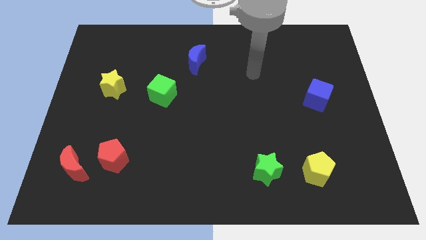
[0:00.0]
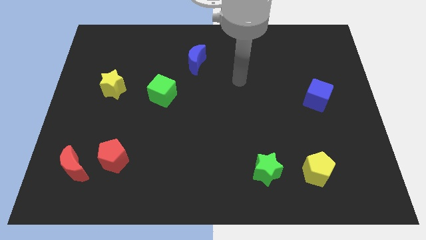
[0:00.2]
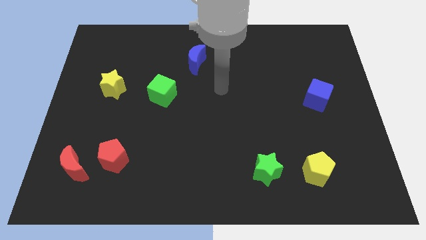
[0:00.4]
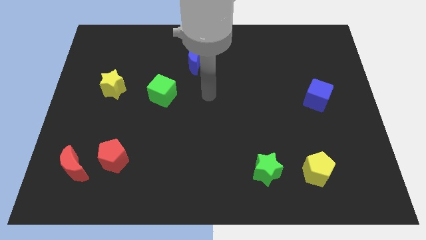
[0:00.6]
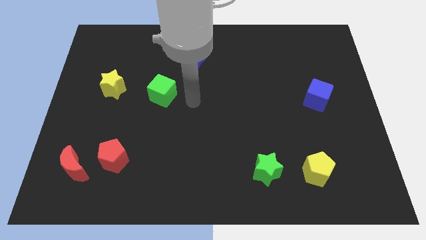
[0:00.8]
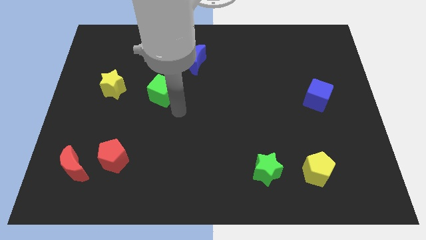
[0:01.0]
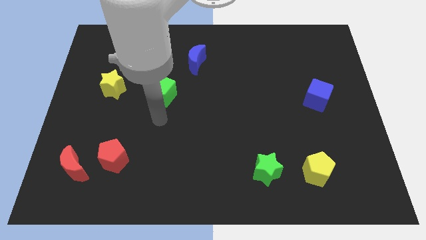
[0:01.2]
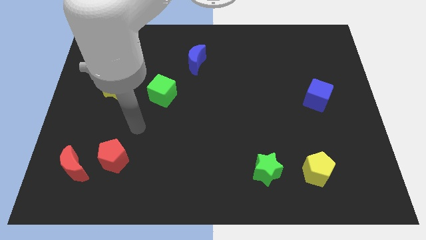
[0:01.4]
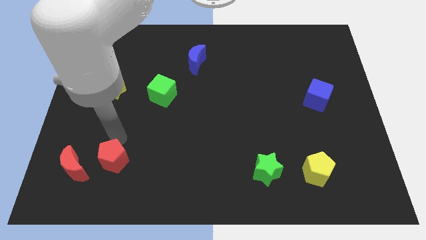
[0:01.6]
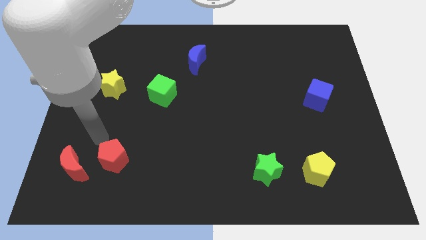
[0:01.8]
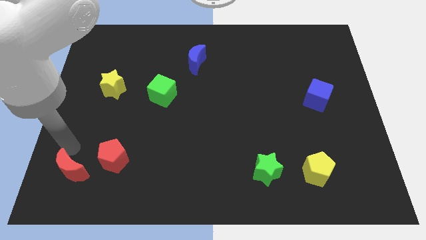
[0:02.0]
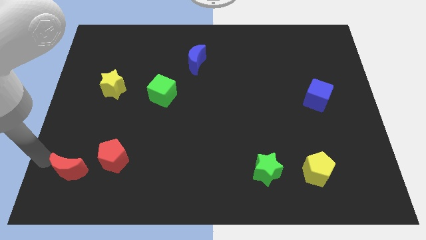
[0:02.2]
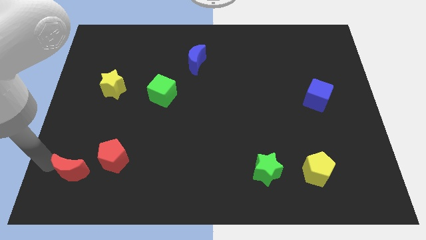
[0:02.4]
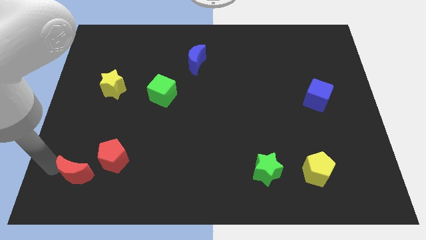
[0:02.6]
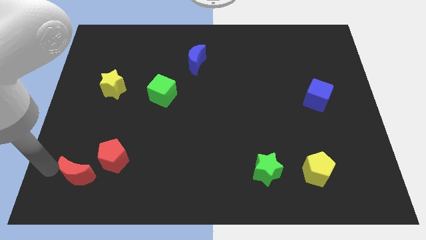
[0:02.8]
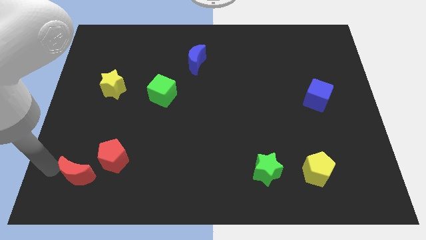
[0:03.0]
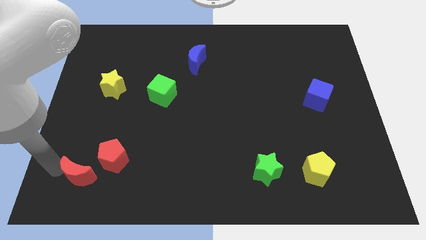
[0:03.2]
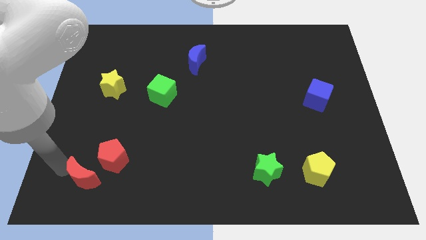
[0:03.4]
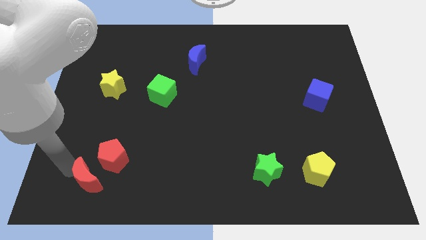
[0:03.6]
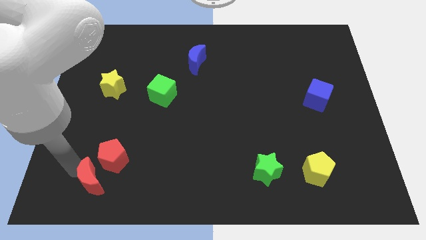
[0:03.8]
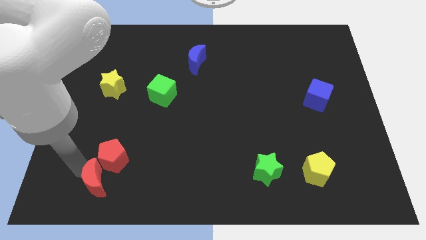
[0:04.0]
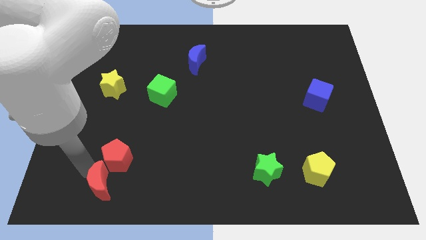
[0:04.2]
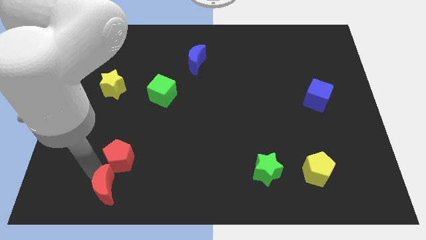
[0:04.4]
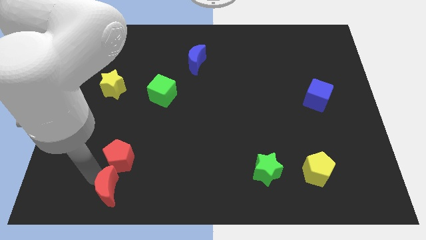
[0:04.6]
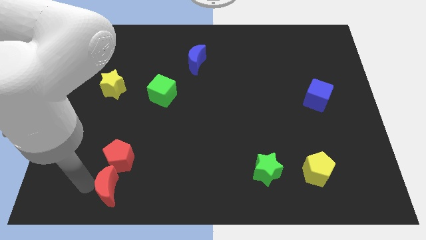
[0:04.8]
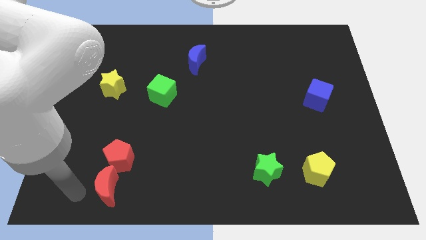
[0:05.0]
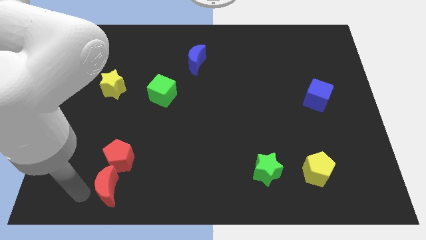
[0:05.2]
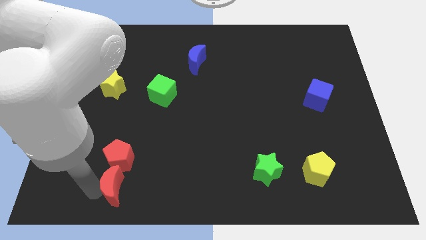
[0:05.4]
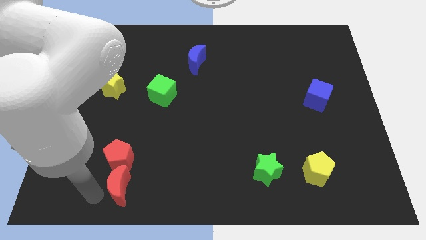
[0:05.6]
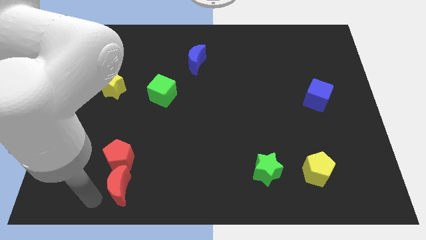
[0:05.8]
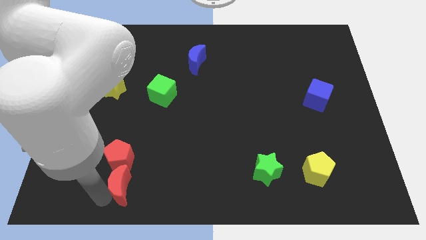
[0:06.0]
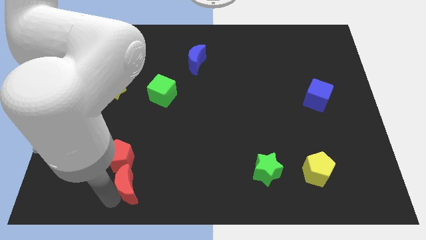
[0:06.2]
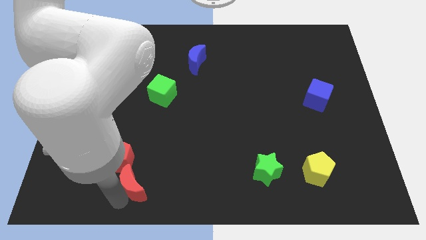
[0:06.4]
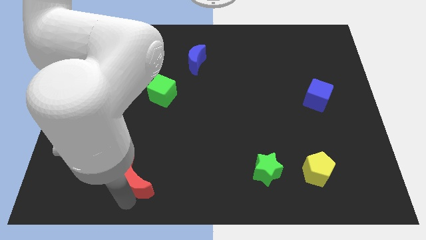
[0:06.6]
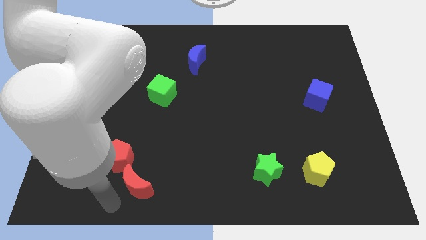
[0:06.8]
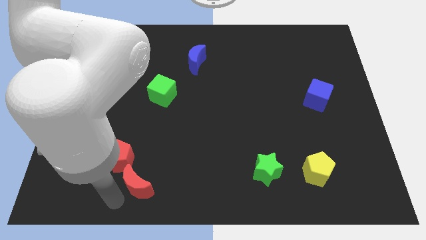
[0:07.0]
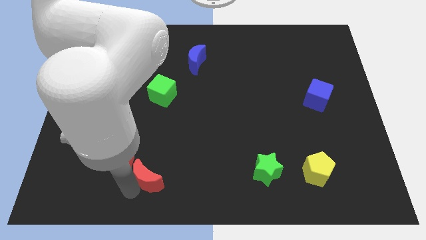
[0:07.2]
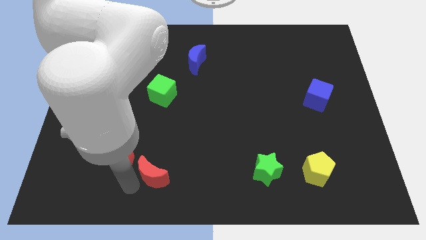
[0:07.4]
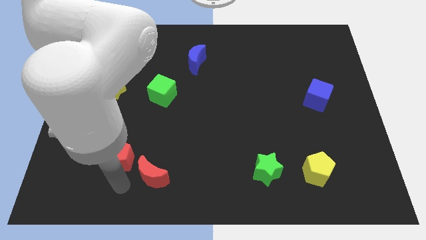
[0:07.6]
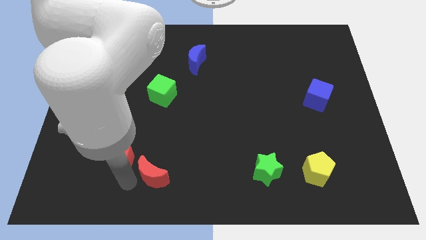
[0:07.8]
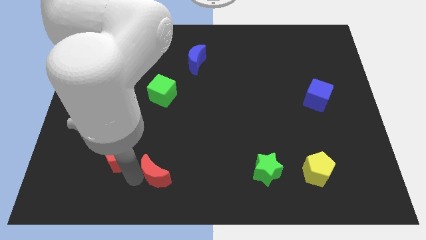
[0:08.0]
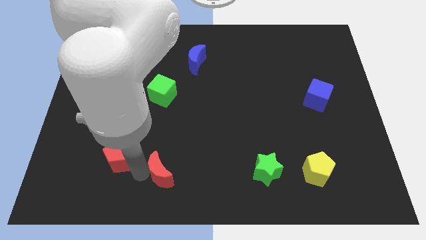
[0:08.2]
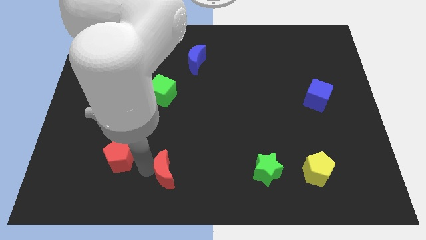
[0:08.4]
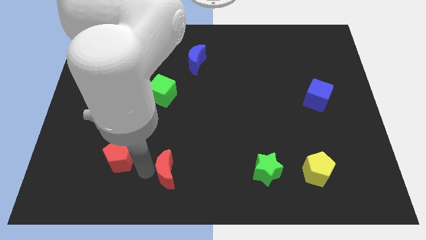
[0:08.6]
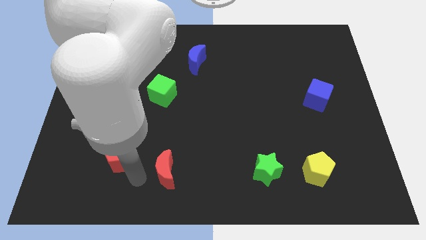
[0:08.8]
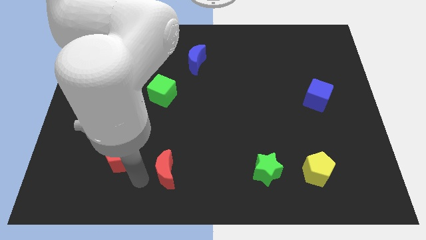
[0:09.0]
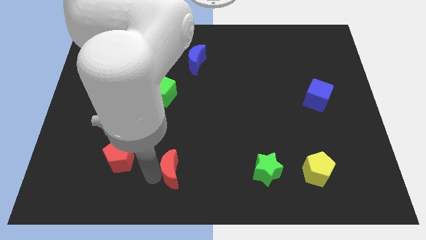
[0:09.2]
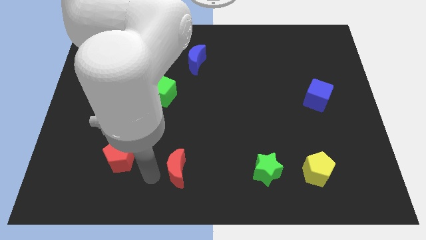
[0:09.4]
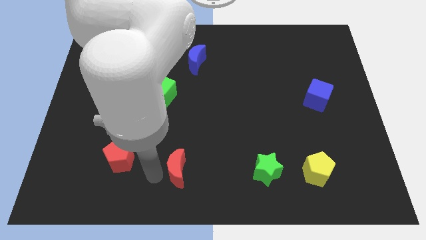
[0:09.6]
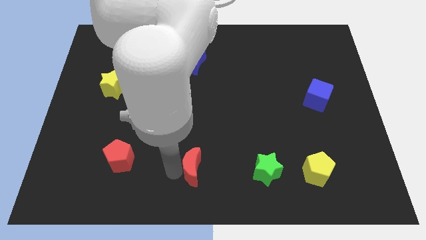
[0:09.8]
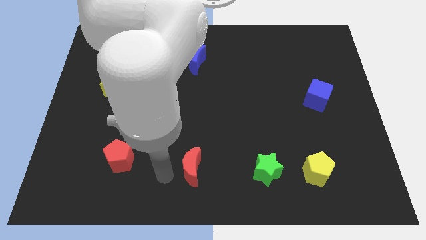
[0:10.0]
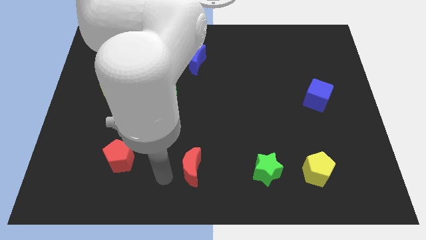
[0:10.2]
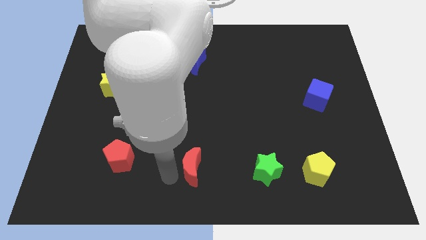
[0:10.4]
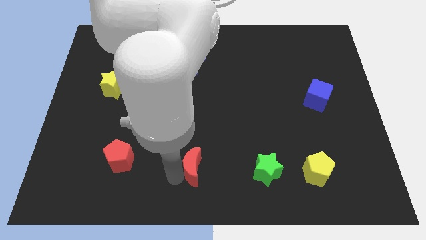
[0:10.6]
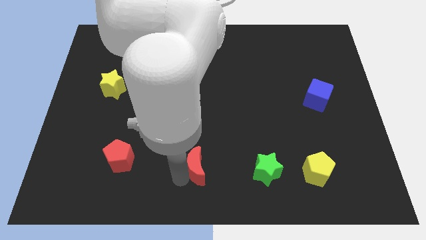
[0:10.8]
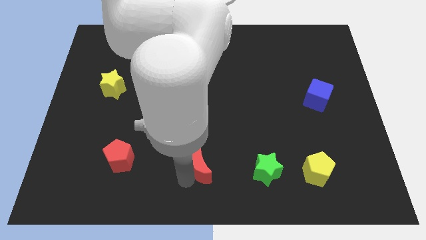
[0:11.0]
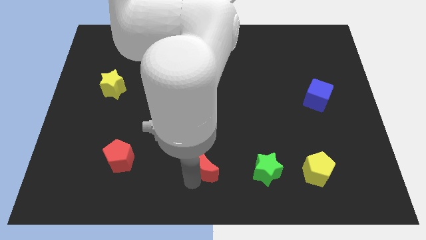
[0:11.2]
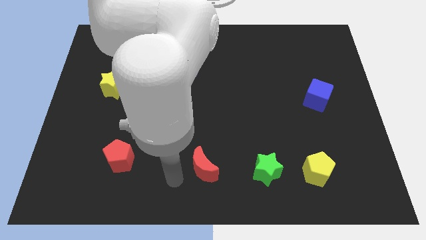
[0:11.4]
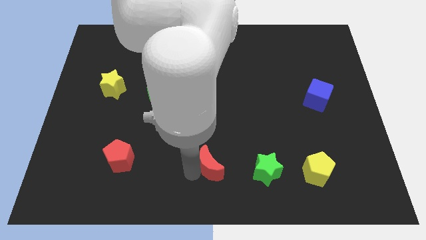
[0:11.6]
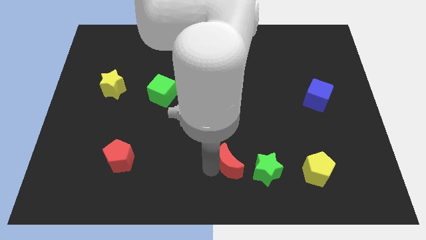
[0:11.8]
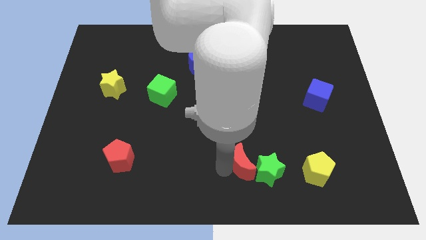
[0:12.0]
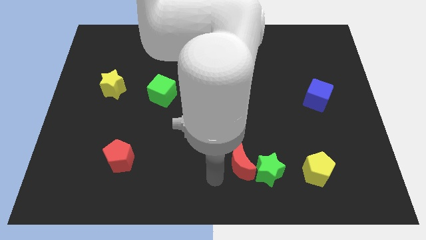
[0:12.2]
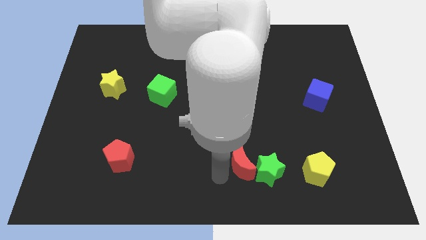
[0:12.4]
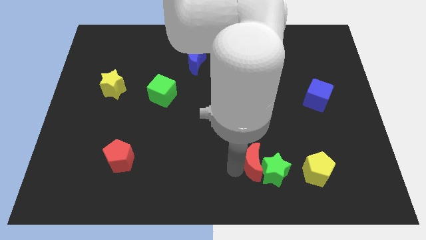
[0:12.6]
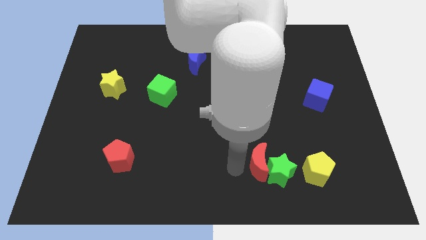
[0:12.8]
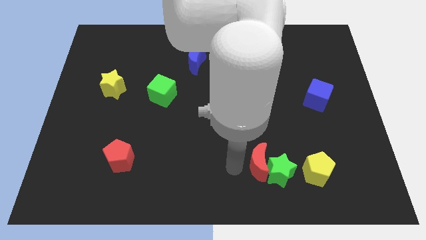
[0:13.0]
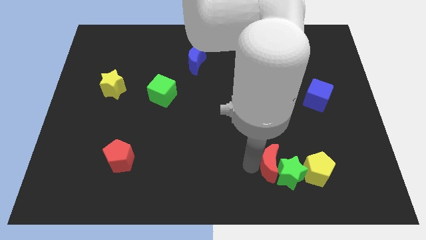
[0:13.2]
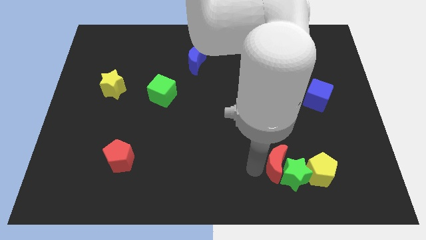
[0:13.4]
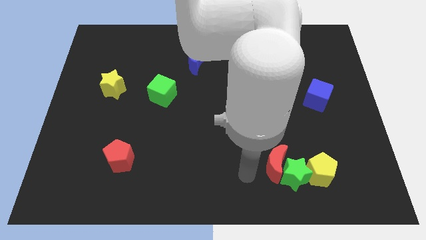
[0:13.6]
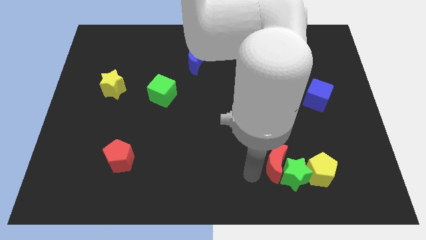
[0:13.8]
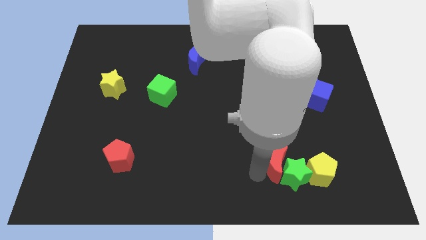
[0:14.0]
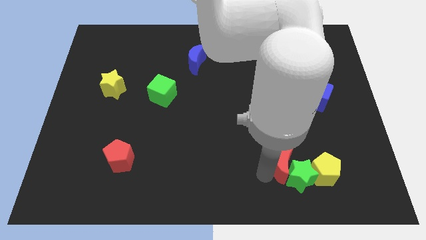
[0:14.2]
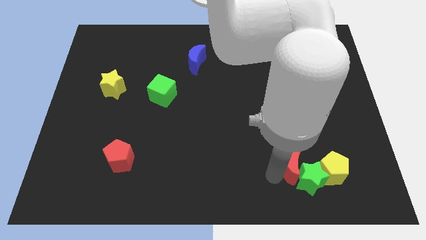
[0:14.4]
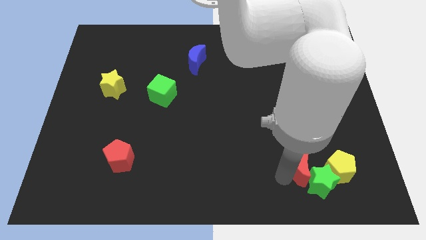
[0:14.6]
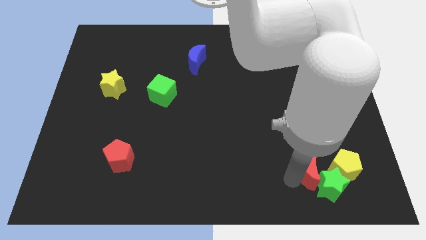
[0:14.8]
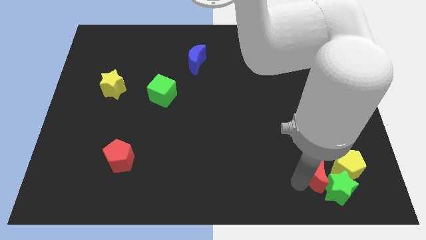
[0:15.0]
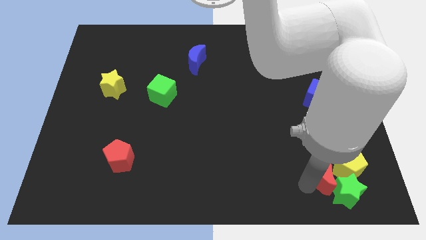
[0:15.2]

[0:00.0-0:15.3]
push the red moon to the yellow pentagon

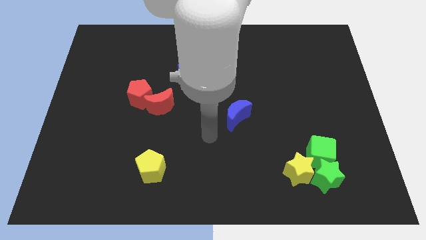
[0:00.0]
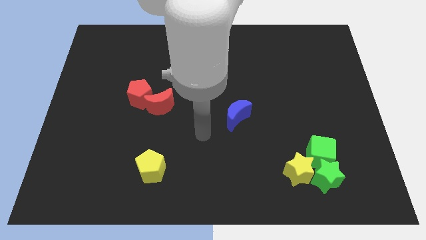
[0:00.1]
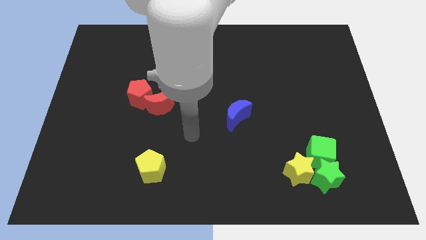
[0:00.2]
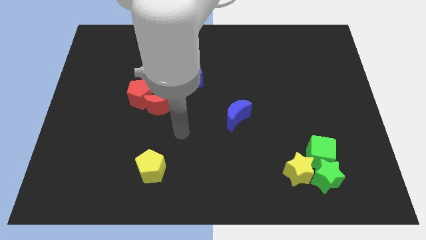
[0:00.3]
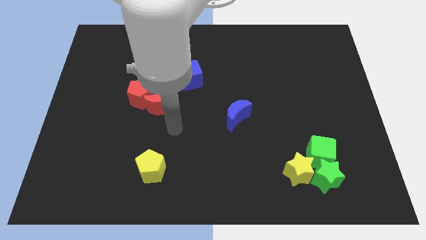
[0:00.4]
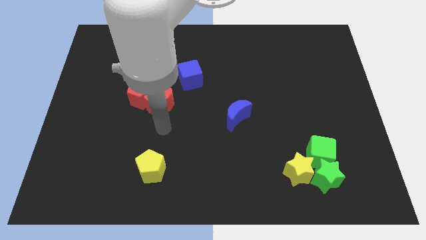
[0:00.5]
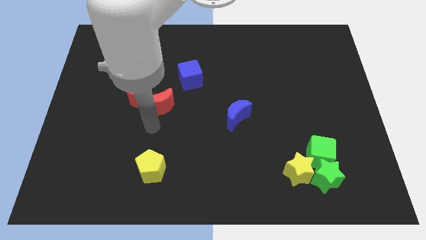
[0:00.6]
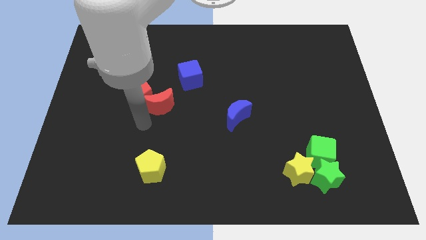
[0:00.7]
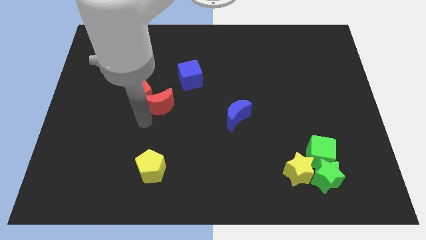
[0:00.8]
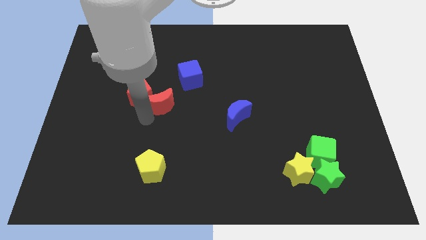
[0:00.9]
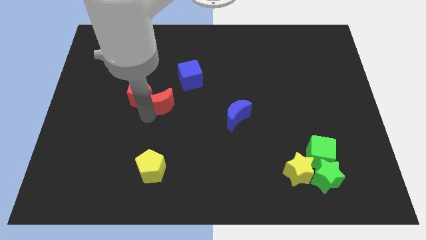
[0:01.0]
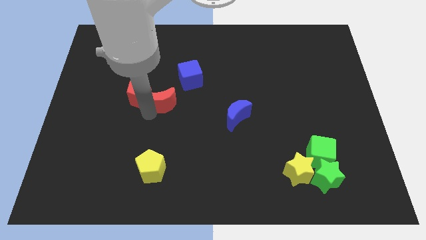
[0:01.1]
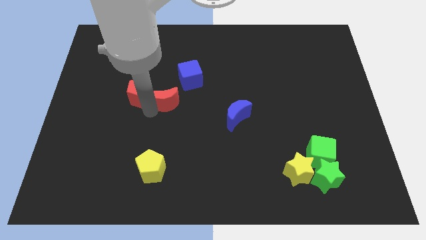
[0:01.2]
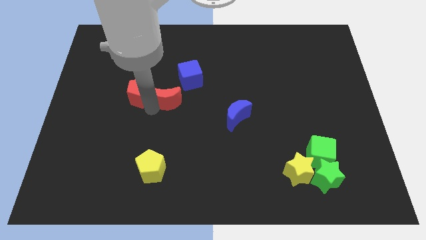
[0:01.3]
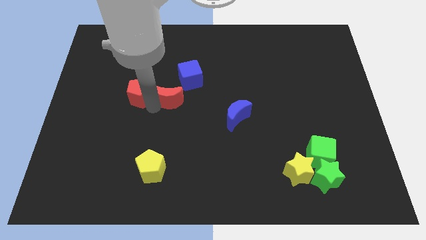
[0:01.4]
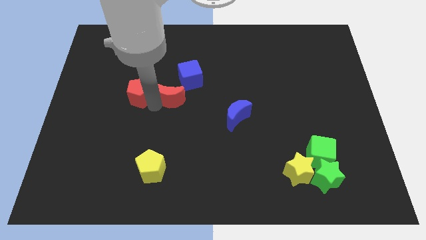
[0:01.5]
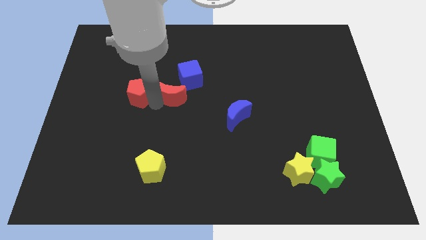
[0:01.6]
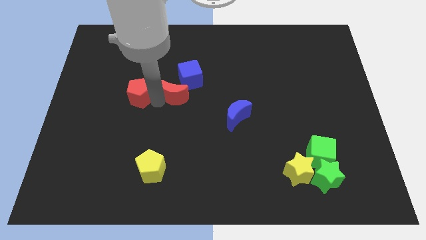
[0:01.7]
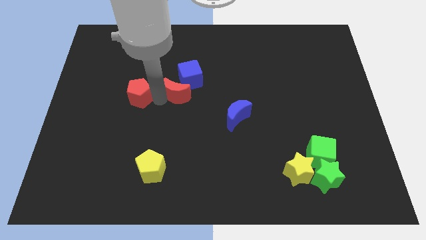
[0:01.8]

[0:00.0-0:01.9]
slide the red moon close to the blue cube
